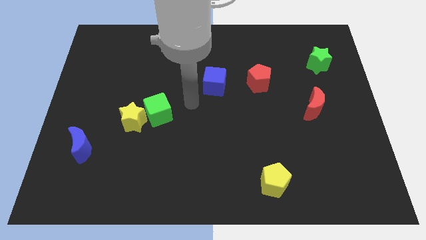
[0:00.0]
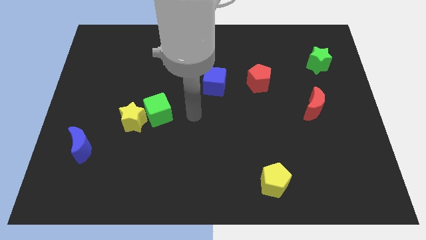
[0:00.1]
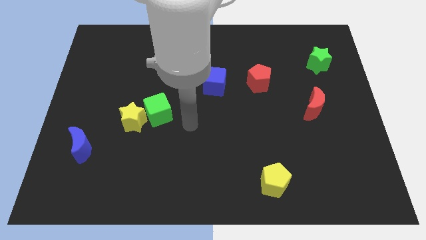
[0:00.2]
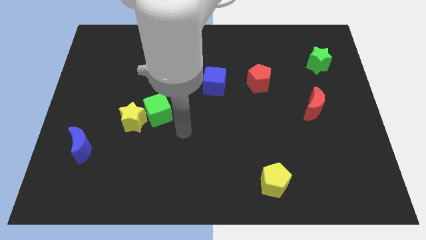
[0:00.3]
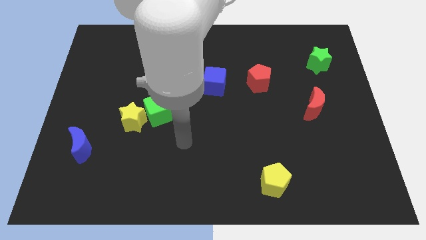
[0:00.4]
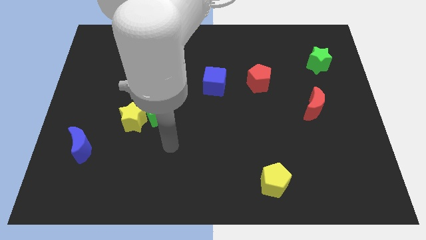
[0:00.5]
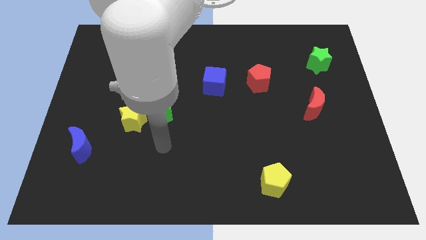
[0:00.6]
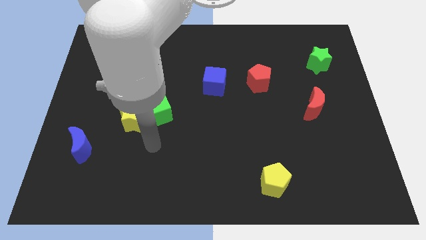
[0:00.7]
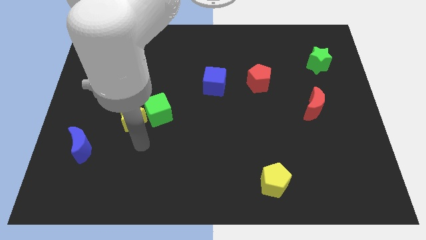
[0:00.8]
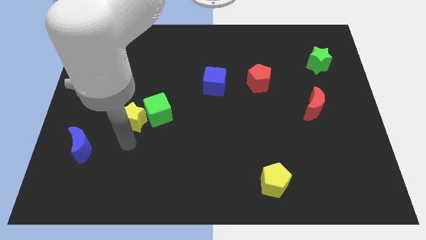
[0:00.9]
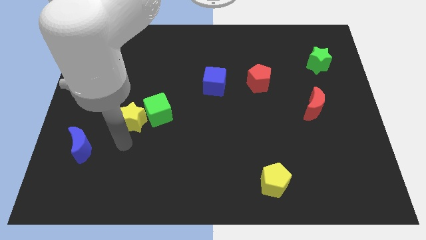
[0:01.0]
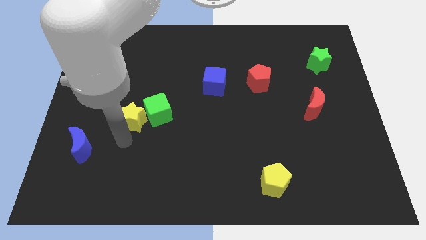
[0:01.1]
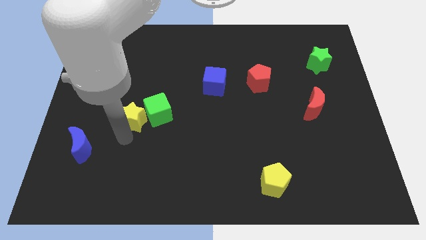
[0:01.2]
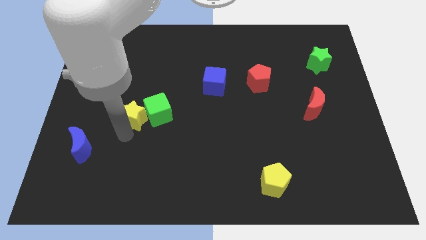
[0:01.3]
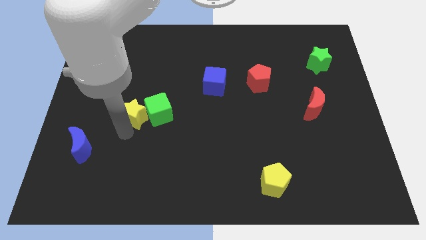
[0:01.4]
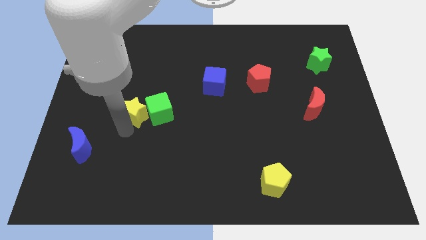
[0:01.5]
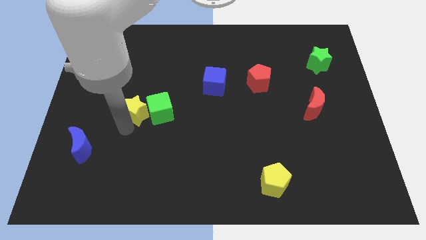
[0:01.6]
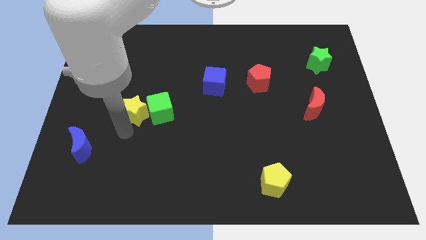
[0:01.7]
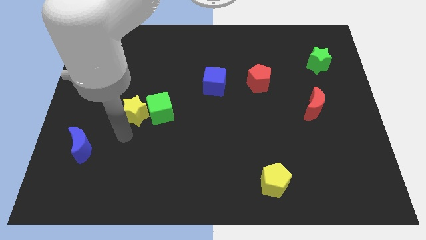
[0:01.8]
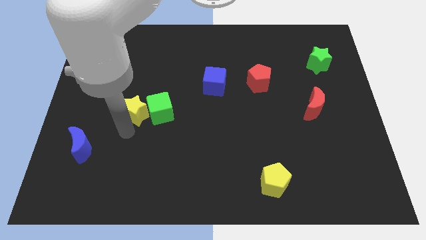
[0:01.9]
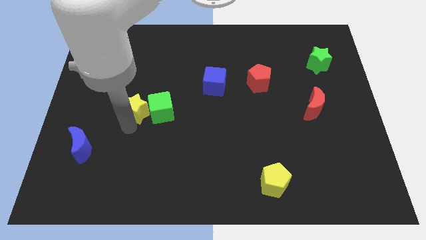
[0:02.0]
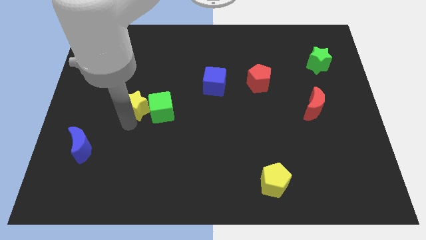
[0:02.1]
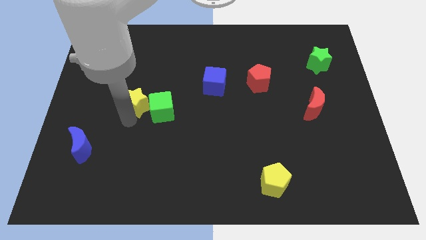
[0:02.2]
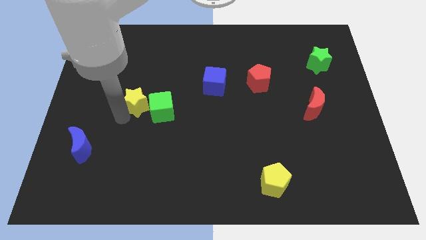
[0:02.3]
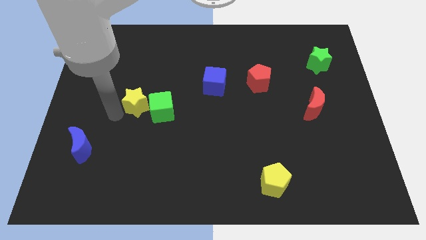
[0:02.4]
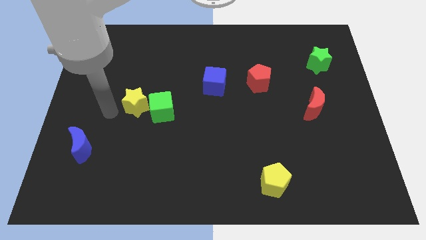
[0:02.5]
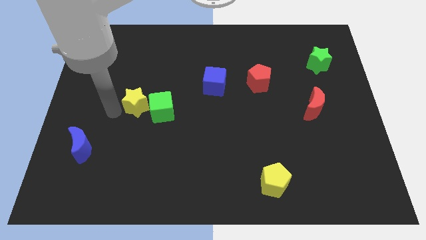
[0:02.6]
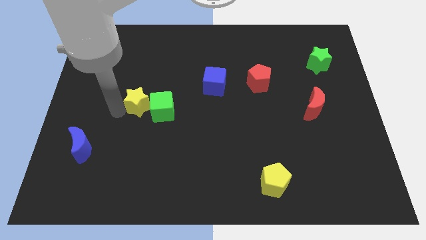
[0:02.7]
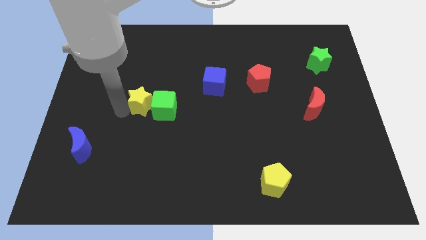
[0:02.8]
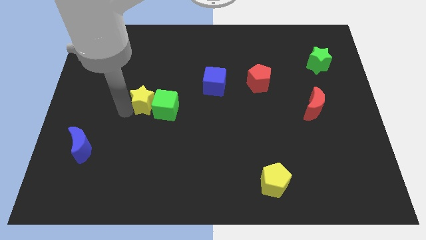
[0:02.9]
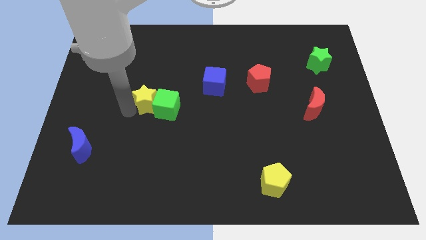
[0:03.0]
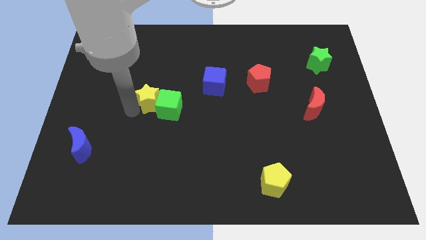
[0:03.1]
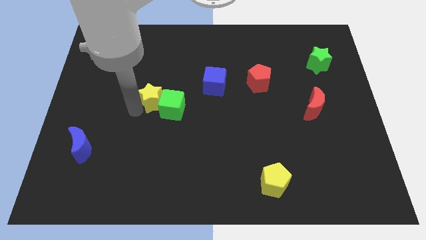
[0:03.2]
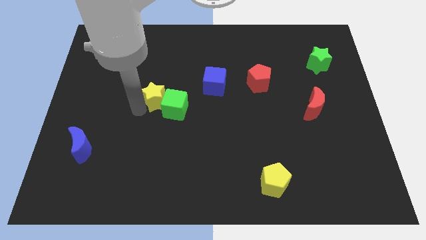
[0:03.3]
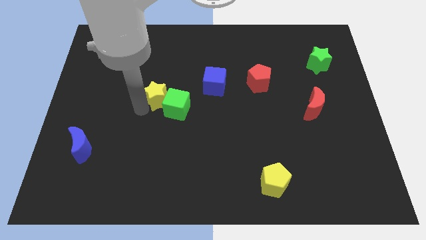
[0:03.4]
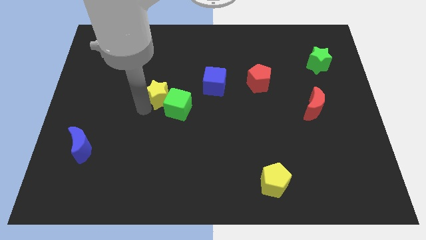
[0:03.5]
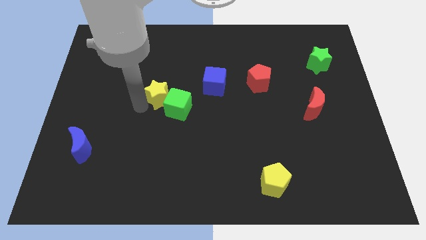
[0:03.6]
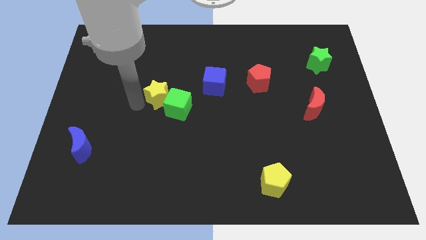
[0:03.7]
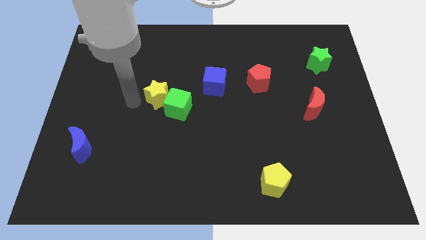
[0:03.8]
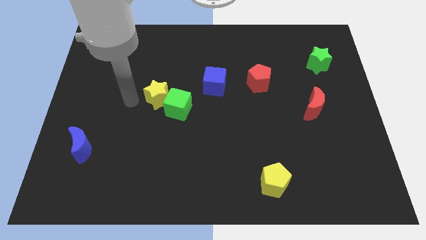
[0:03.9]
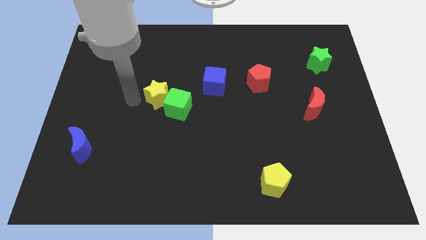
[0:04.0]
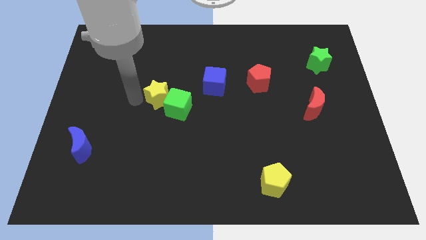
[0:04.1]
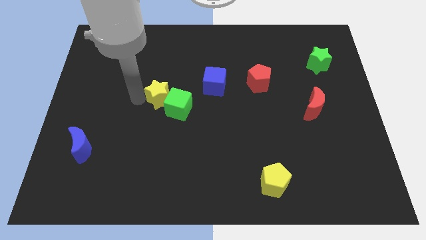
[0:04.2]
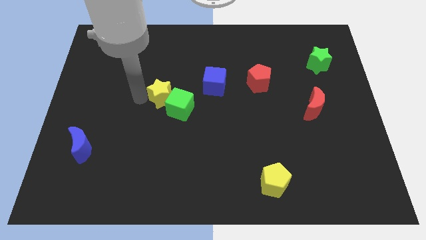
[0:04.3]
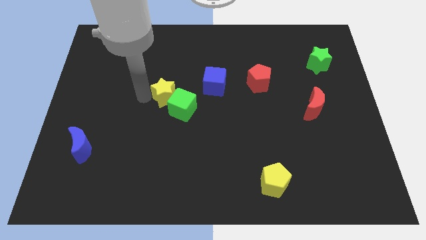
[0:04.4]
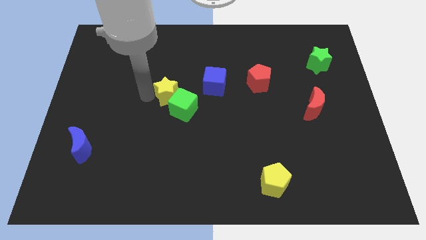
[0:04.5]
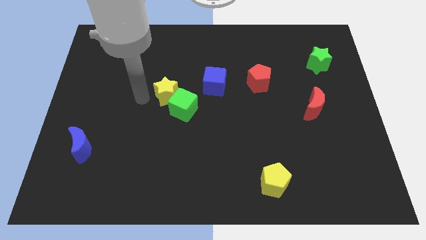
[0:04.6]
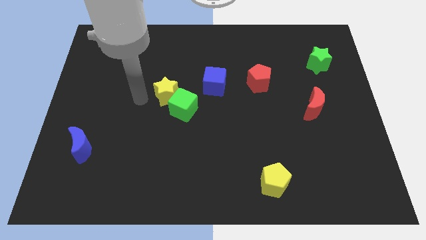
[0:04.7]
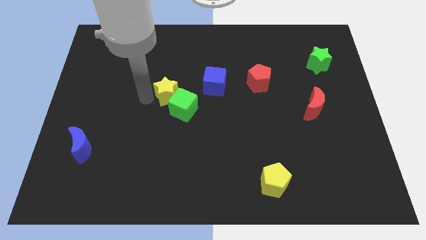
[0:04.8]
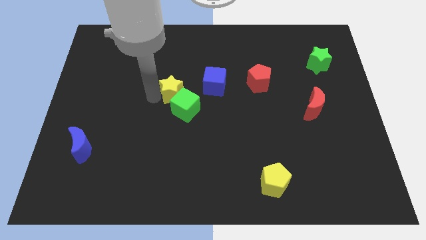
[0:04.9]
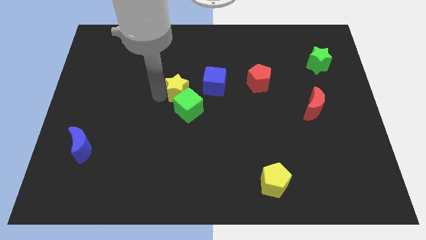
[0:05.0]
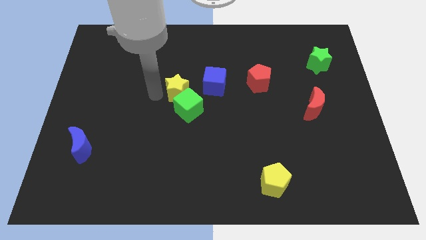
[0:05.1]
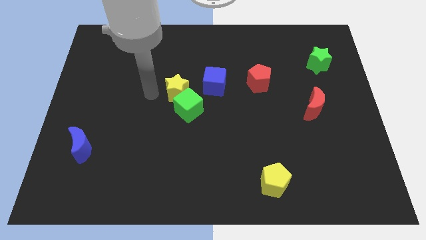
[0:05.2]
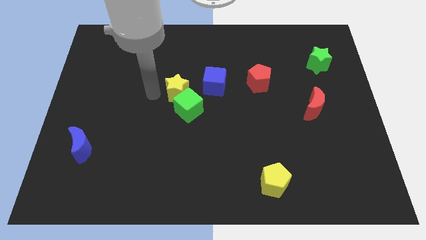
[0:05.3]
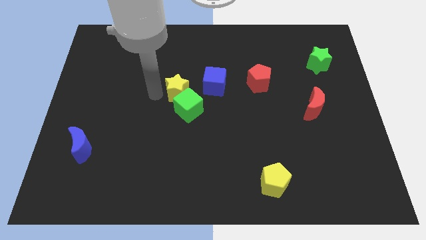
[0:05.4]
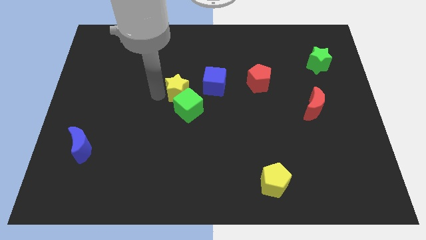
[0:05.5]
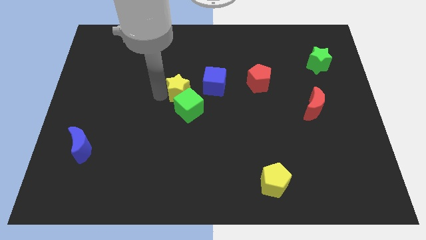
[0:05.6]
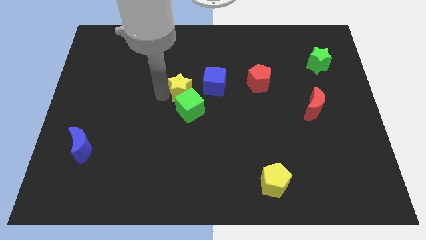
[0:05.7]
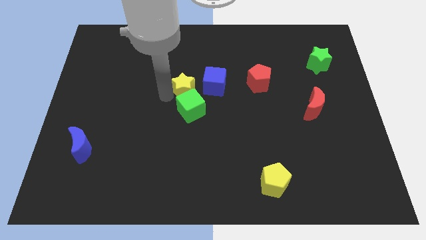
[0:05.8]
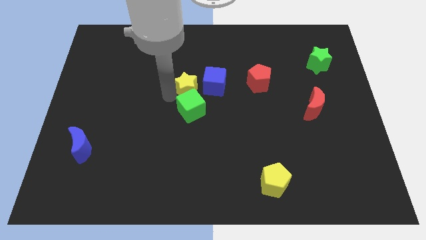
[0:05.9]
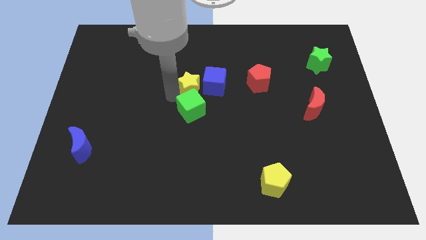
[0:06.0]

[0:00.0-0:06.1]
push the yellow star towards the blue cube

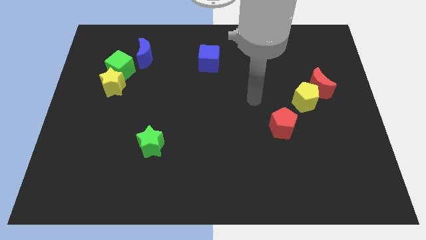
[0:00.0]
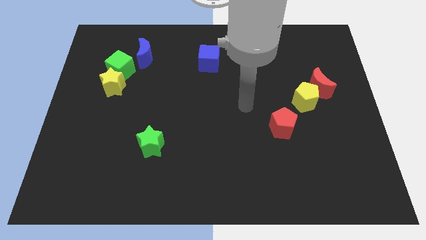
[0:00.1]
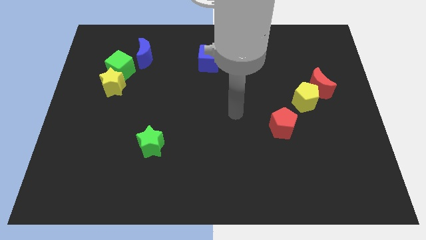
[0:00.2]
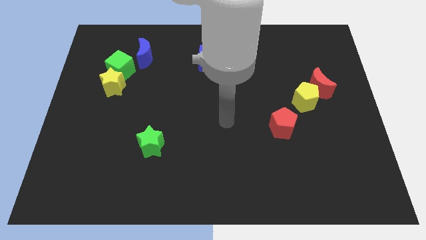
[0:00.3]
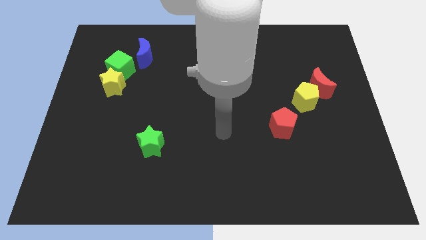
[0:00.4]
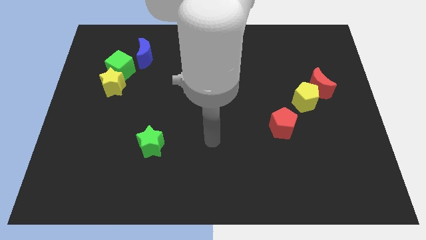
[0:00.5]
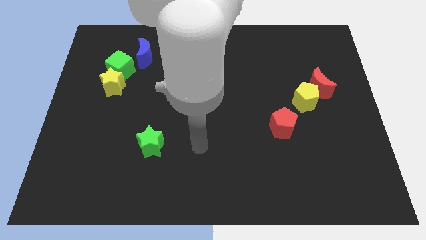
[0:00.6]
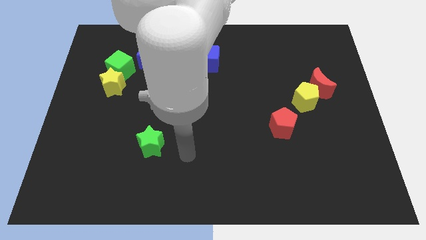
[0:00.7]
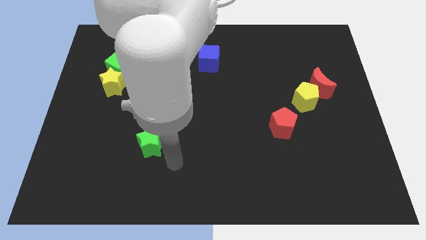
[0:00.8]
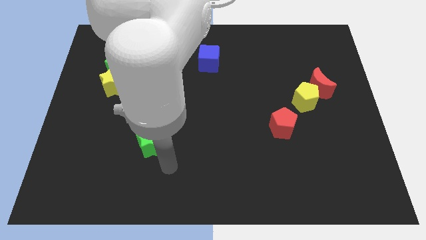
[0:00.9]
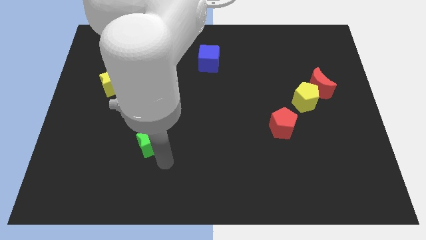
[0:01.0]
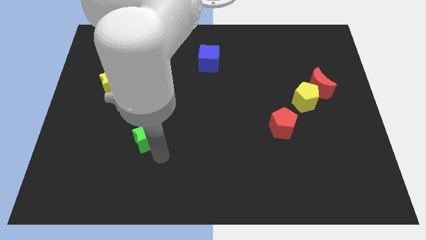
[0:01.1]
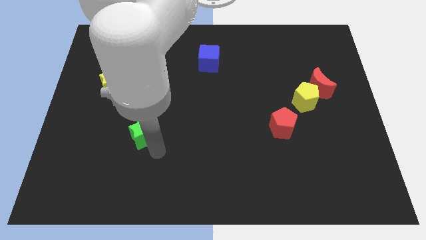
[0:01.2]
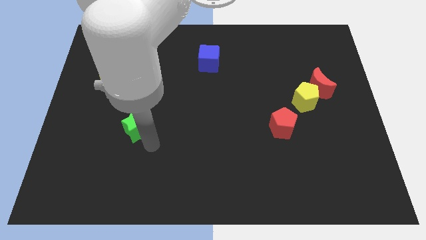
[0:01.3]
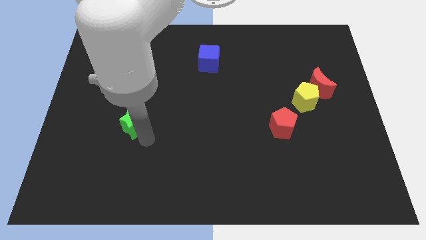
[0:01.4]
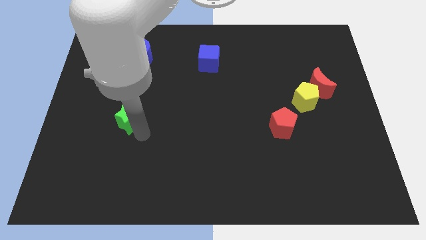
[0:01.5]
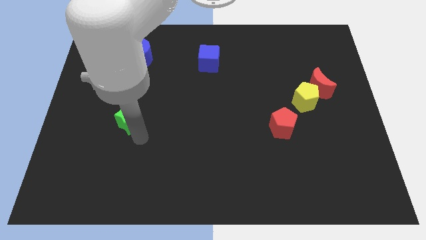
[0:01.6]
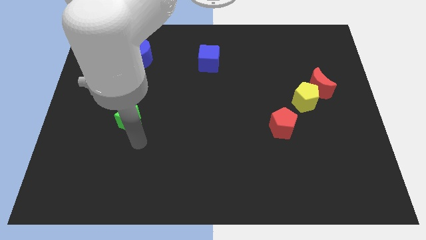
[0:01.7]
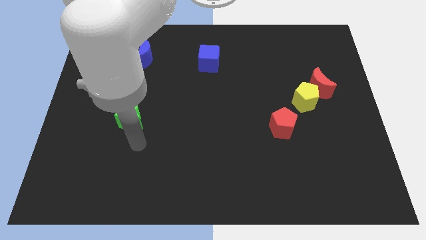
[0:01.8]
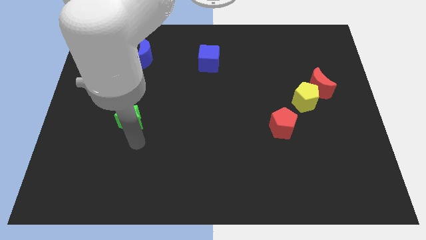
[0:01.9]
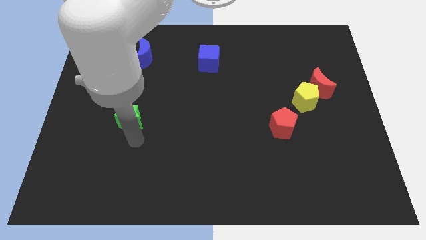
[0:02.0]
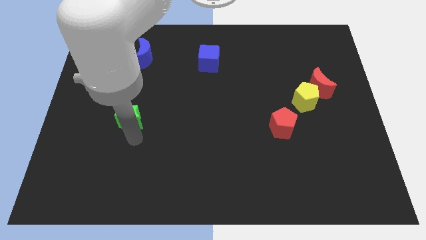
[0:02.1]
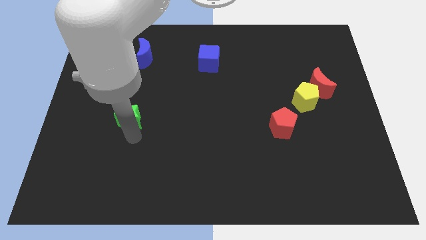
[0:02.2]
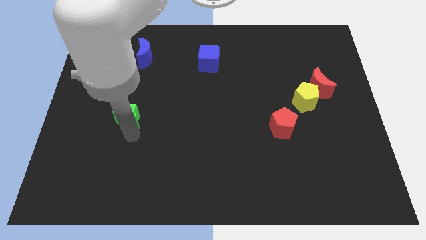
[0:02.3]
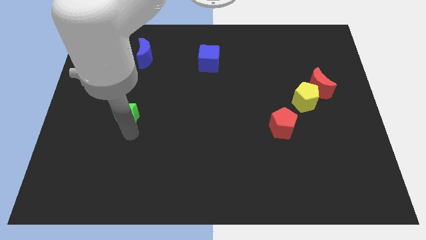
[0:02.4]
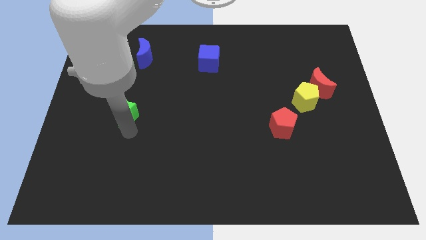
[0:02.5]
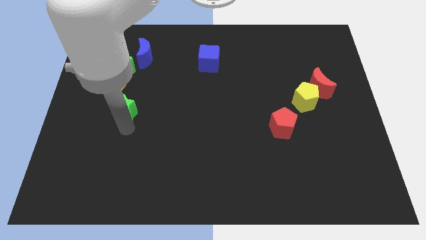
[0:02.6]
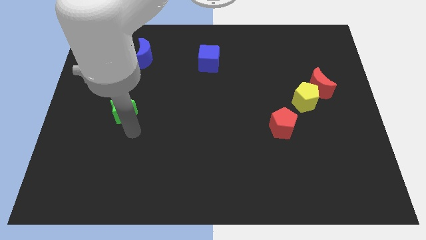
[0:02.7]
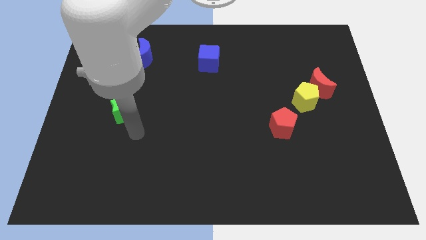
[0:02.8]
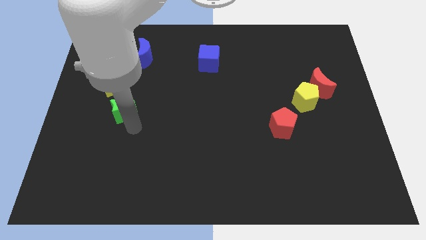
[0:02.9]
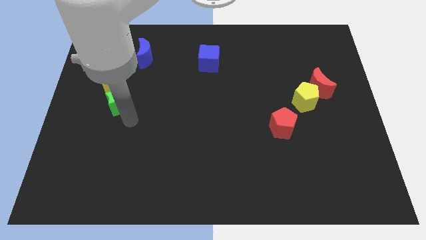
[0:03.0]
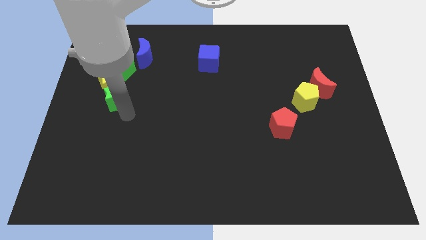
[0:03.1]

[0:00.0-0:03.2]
put the green star to the yellow star
